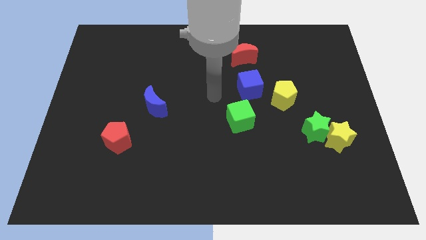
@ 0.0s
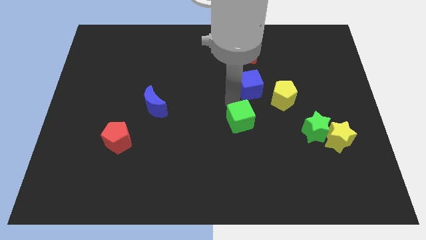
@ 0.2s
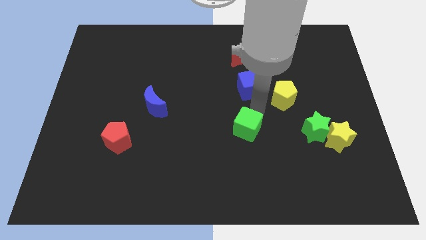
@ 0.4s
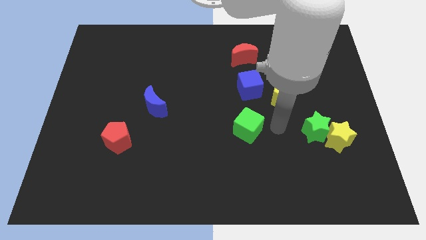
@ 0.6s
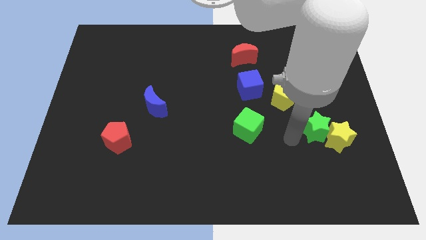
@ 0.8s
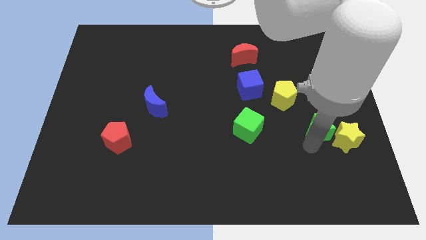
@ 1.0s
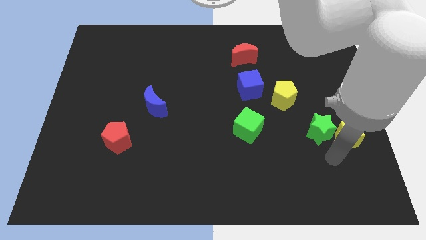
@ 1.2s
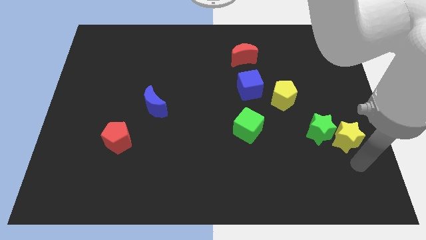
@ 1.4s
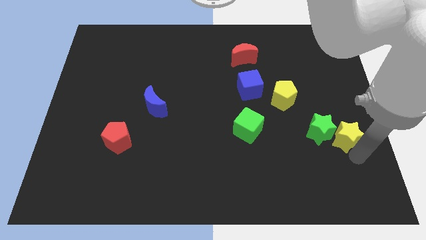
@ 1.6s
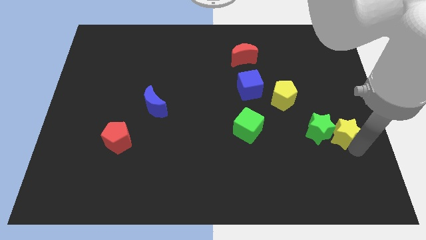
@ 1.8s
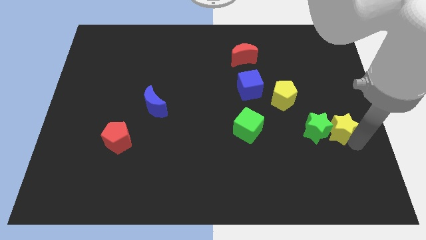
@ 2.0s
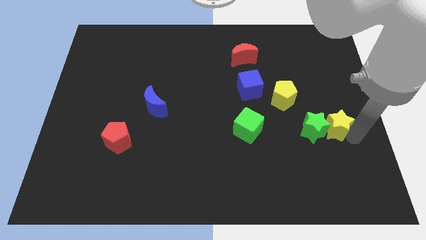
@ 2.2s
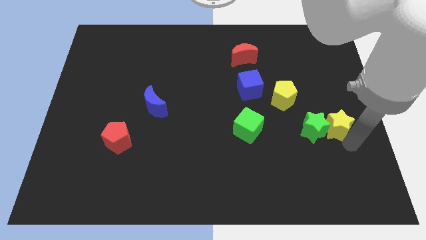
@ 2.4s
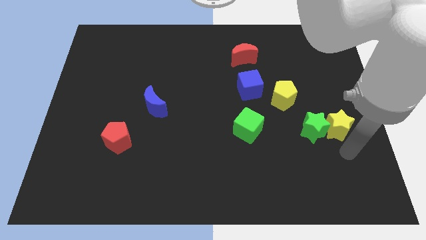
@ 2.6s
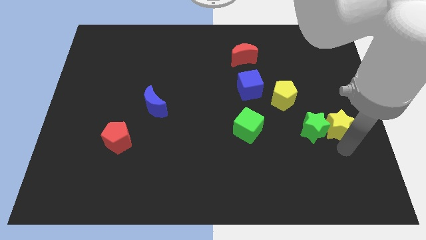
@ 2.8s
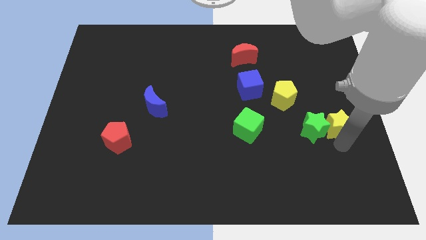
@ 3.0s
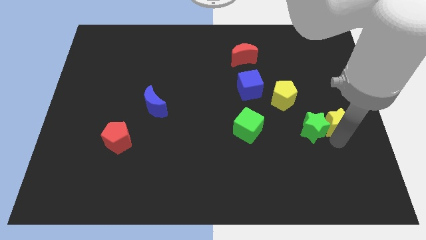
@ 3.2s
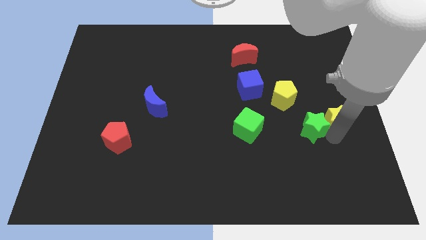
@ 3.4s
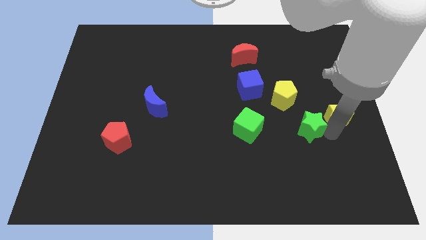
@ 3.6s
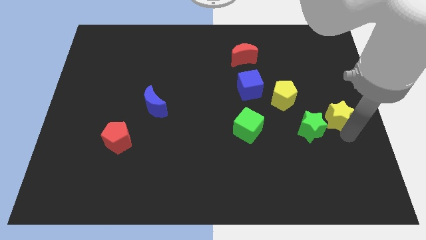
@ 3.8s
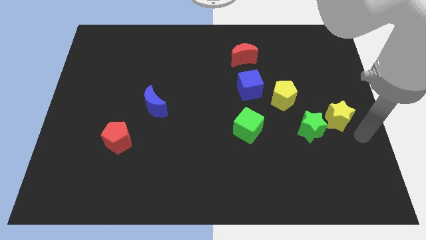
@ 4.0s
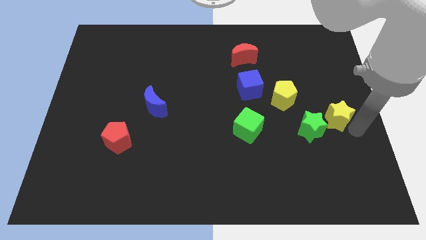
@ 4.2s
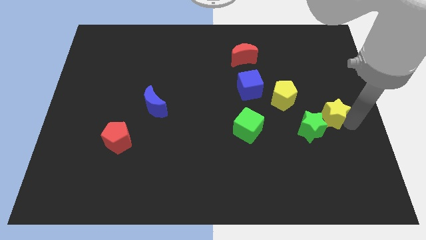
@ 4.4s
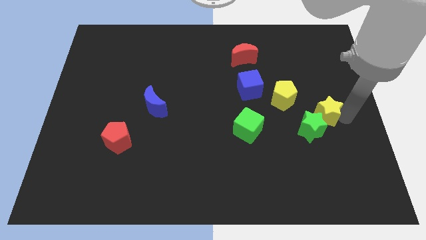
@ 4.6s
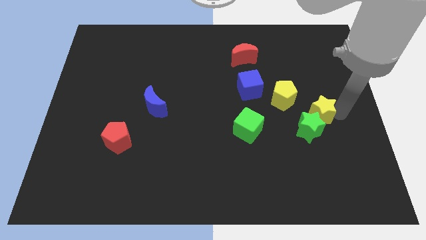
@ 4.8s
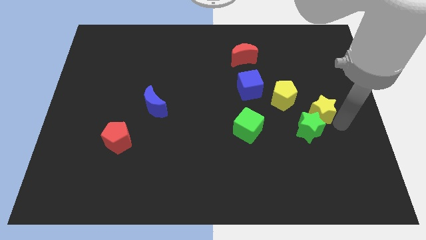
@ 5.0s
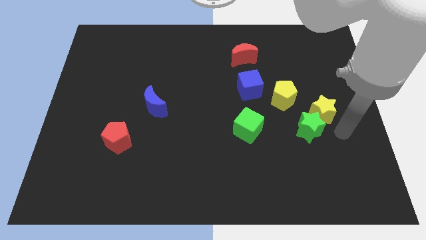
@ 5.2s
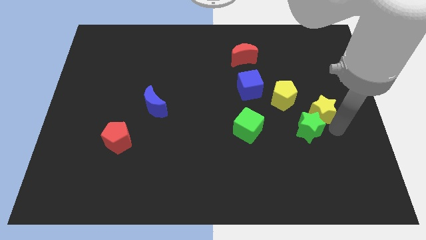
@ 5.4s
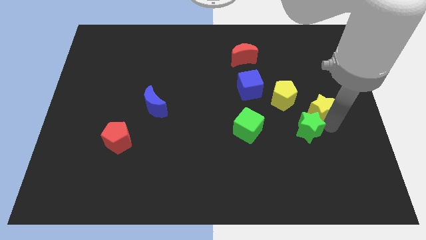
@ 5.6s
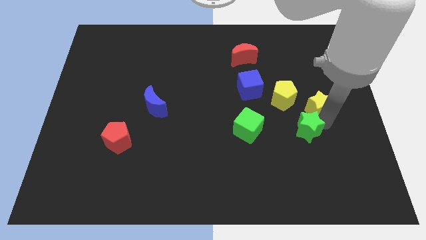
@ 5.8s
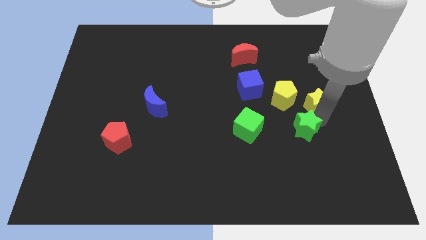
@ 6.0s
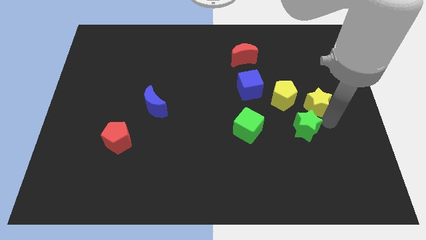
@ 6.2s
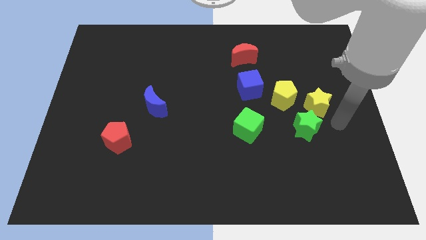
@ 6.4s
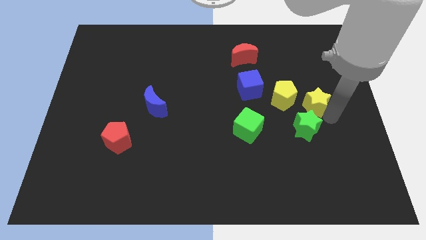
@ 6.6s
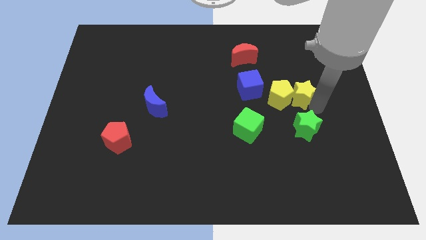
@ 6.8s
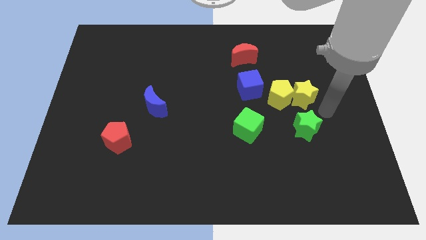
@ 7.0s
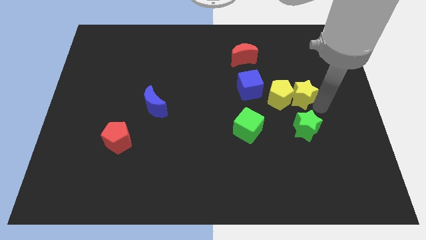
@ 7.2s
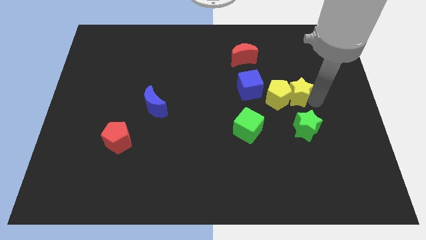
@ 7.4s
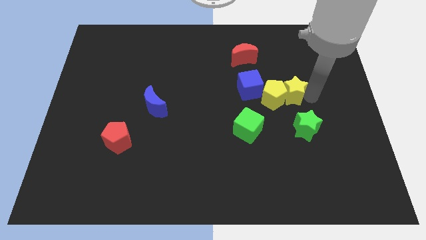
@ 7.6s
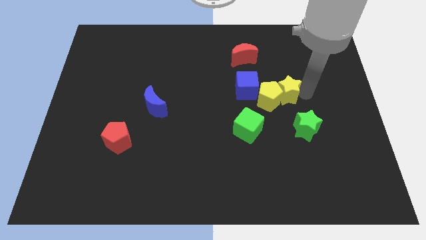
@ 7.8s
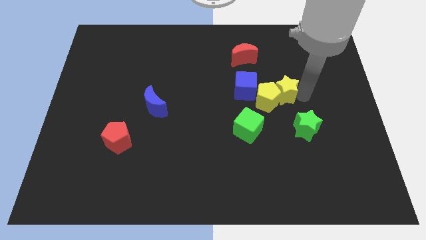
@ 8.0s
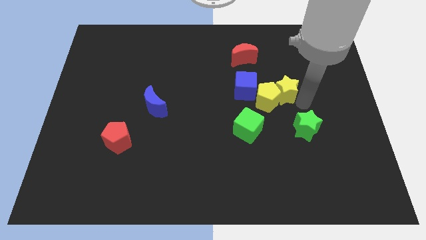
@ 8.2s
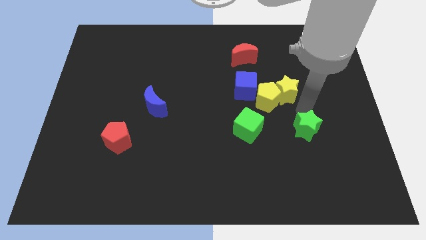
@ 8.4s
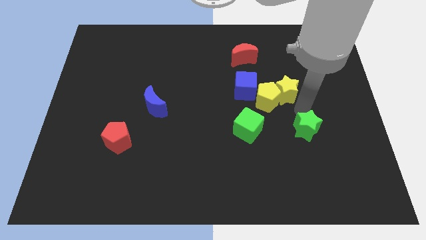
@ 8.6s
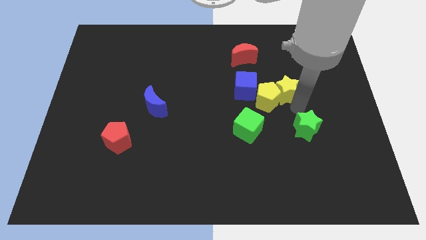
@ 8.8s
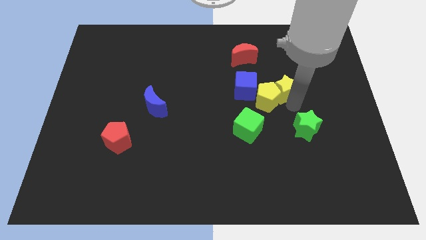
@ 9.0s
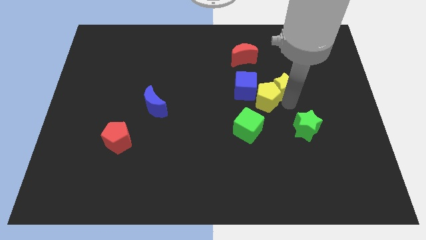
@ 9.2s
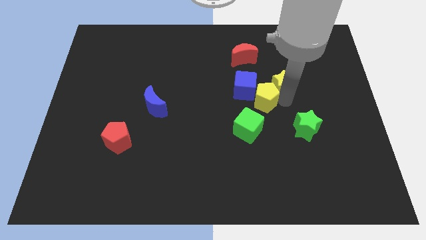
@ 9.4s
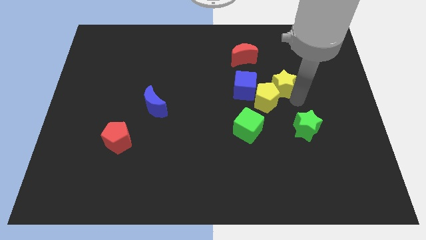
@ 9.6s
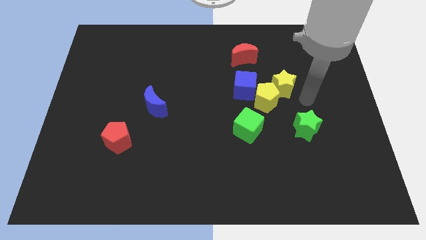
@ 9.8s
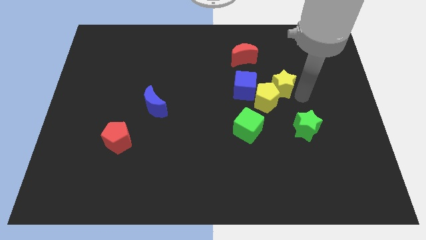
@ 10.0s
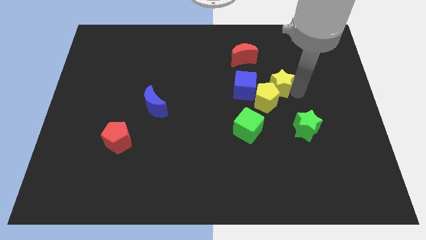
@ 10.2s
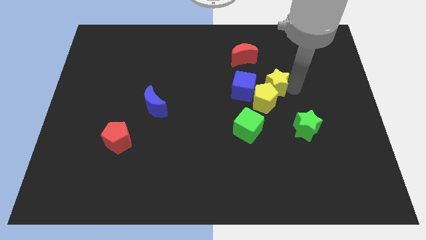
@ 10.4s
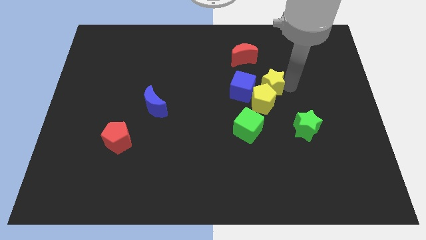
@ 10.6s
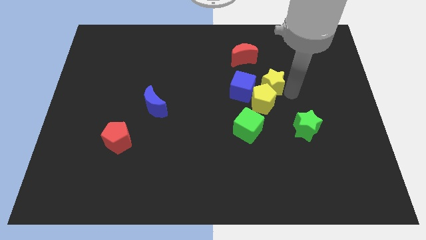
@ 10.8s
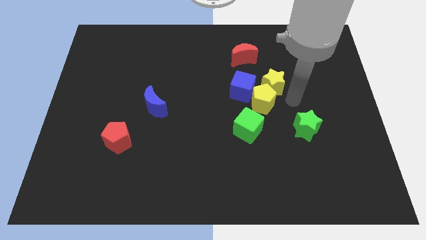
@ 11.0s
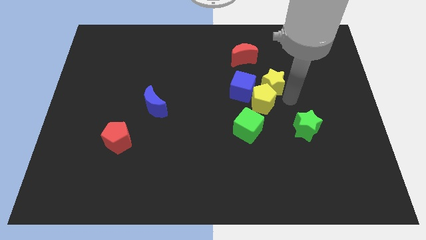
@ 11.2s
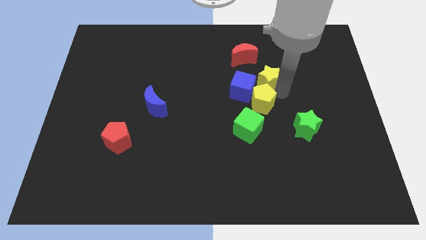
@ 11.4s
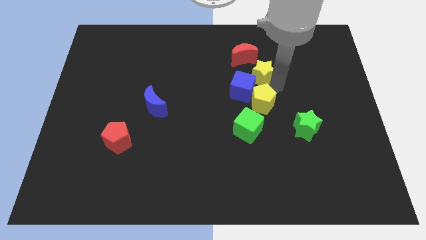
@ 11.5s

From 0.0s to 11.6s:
move the yellow star to the bottom of the red moon

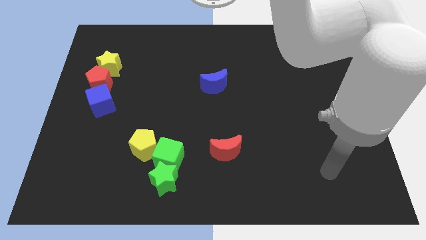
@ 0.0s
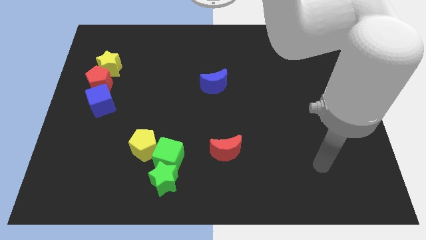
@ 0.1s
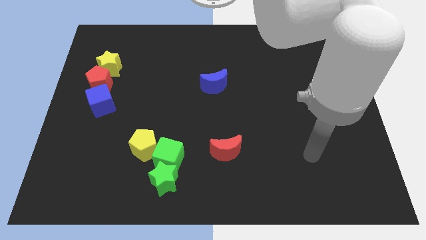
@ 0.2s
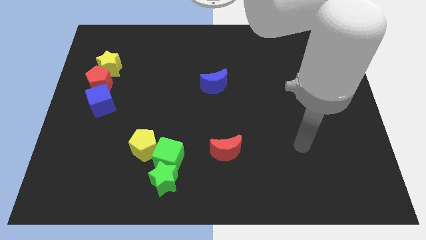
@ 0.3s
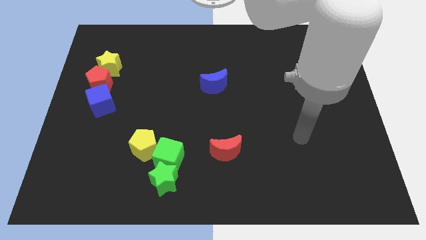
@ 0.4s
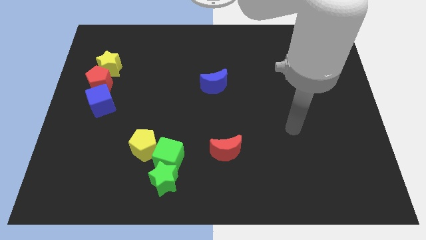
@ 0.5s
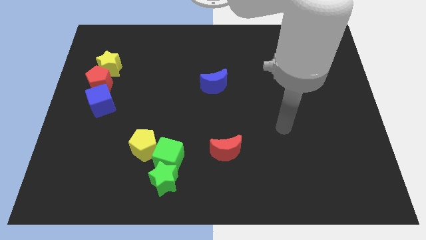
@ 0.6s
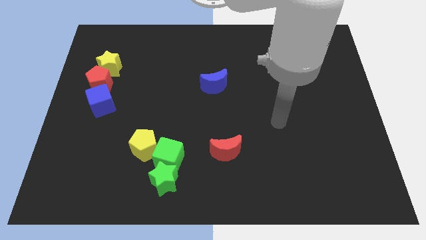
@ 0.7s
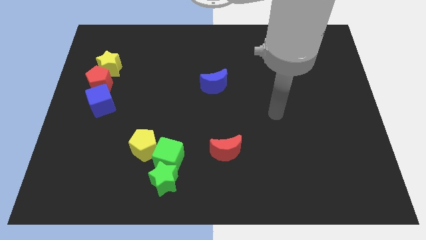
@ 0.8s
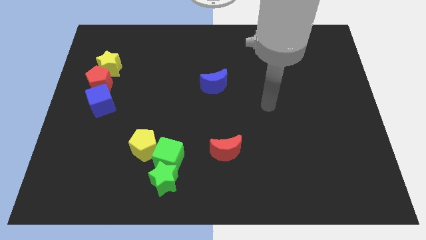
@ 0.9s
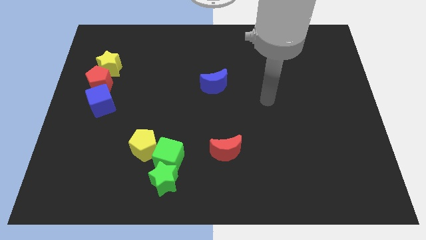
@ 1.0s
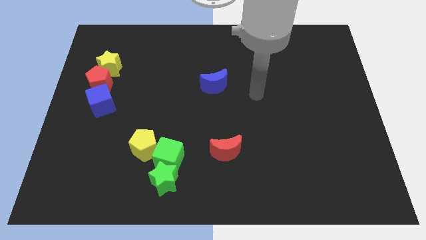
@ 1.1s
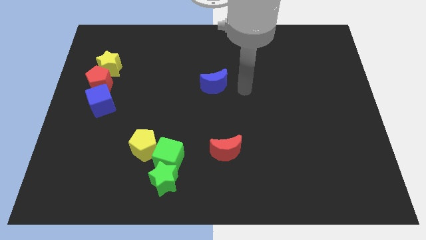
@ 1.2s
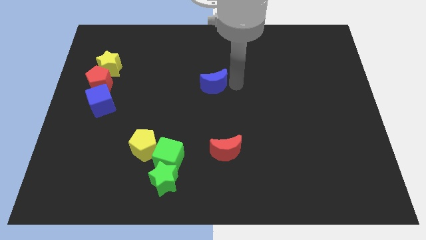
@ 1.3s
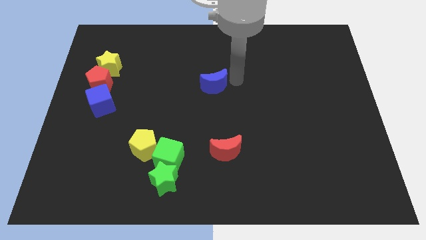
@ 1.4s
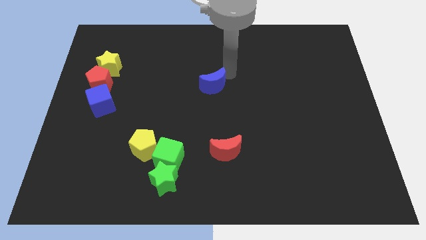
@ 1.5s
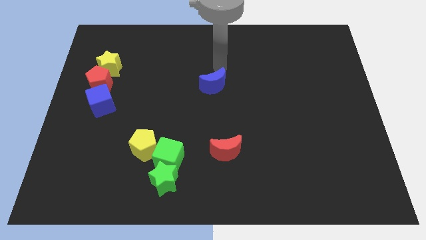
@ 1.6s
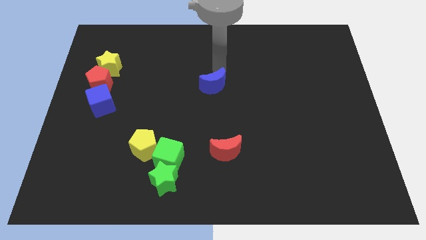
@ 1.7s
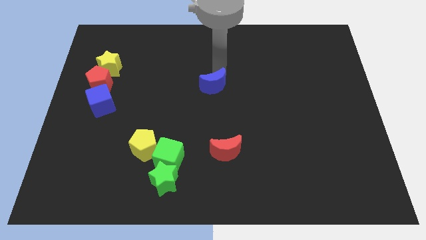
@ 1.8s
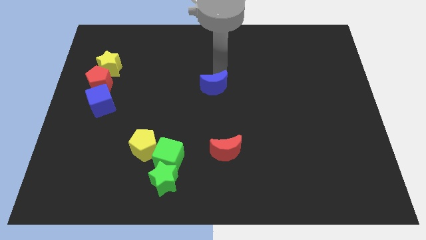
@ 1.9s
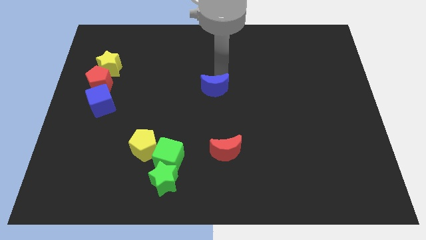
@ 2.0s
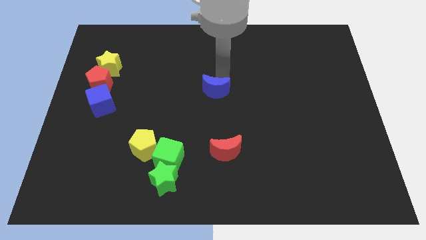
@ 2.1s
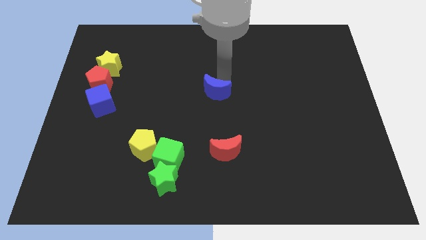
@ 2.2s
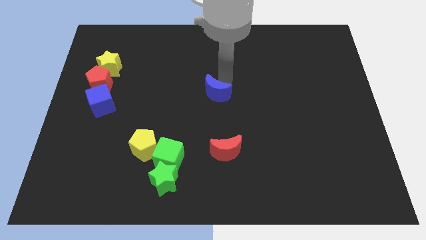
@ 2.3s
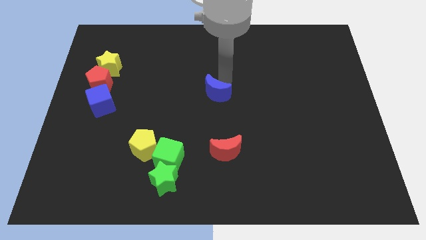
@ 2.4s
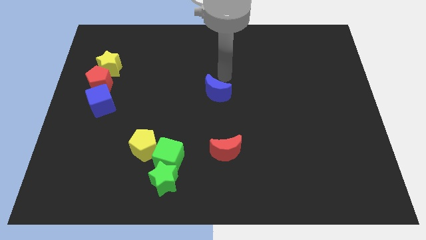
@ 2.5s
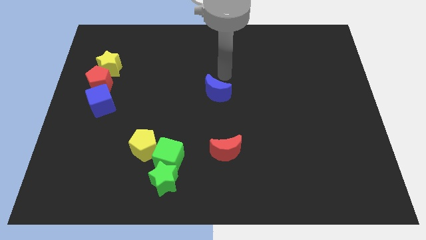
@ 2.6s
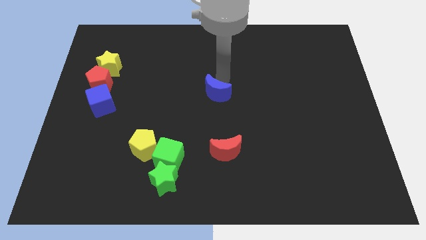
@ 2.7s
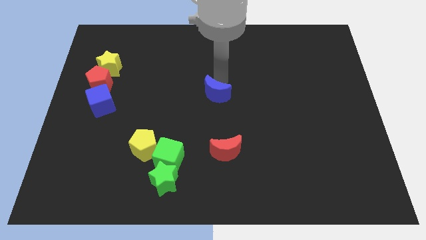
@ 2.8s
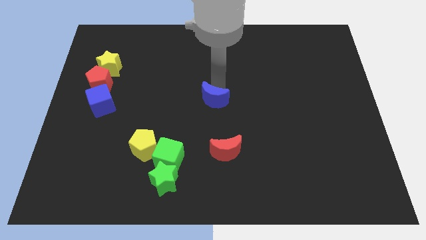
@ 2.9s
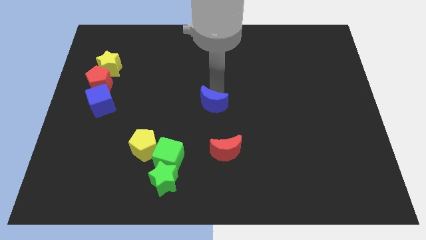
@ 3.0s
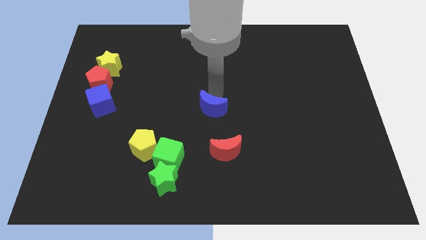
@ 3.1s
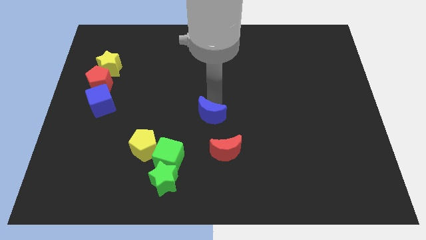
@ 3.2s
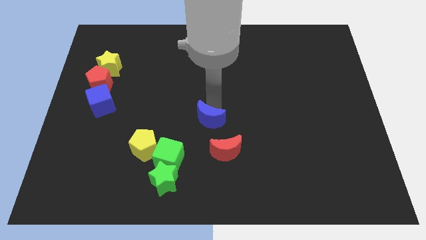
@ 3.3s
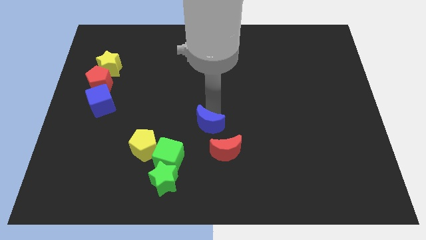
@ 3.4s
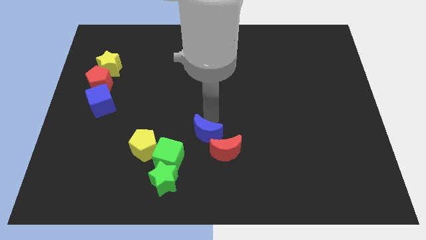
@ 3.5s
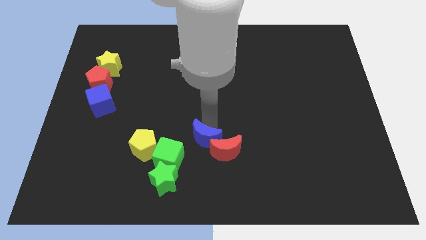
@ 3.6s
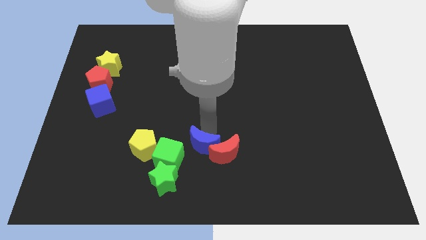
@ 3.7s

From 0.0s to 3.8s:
push the blue moon to the top right of the green star
